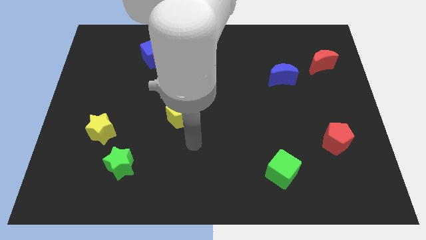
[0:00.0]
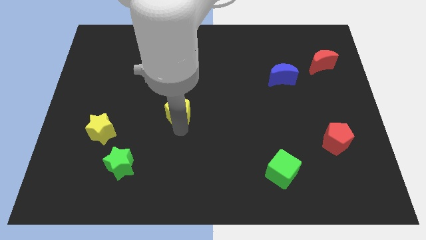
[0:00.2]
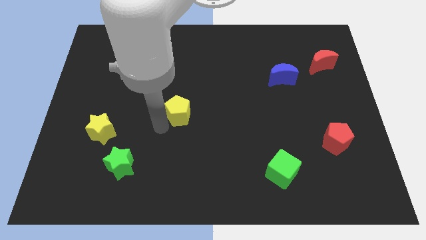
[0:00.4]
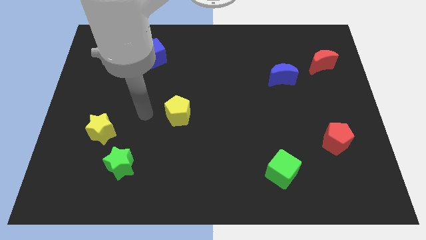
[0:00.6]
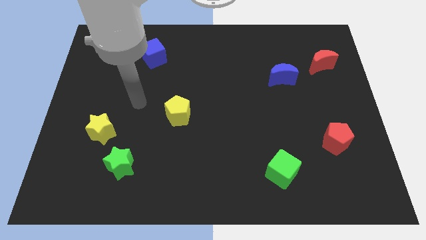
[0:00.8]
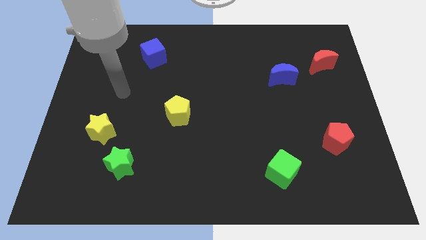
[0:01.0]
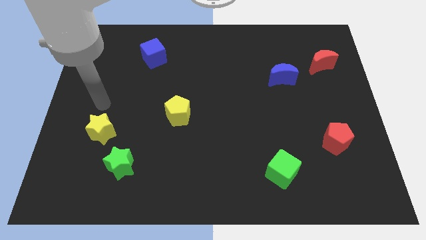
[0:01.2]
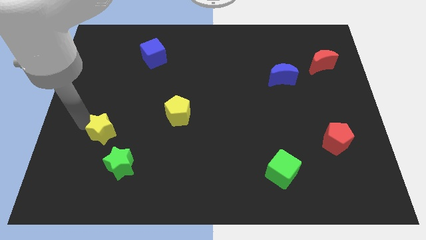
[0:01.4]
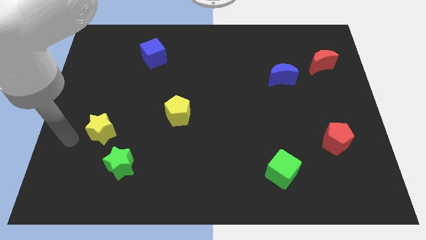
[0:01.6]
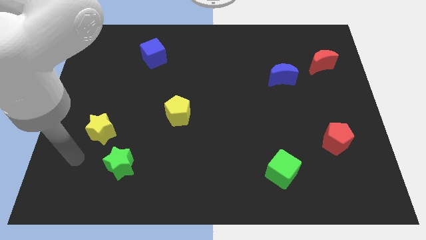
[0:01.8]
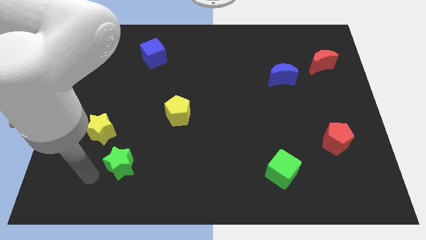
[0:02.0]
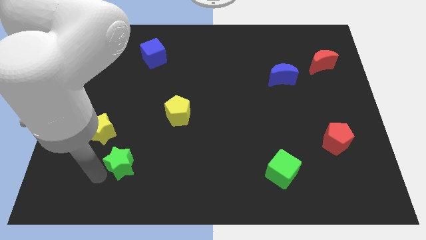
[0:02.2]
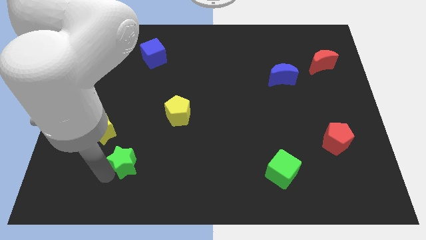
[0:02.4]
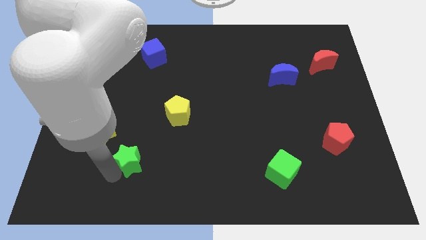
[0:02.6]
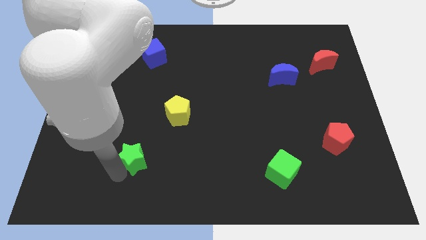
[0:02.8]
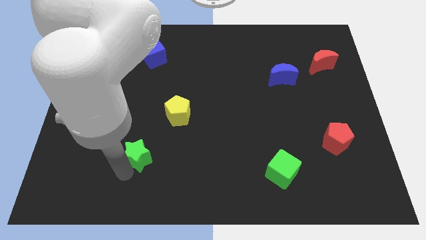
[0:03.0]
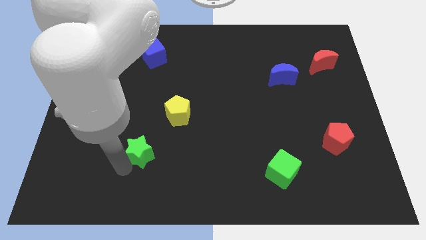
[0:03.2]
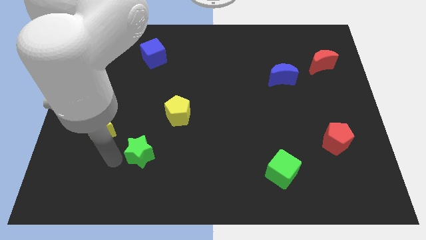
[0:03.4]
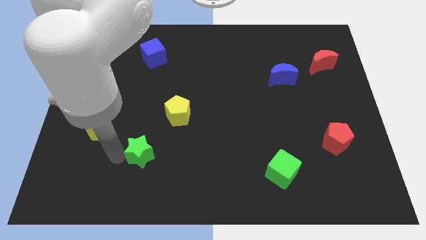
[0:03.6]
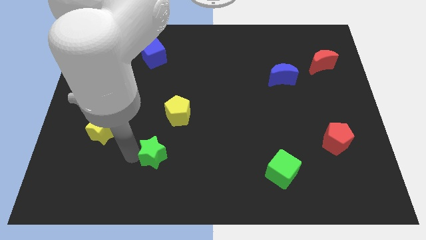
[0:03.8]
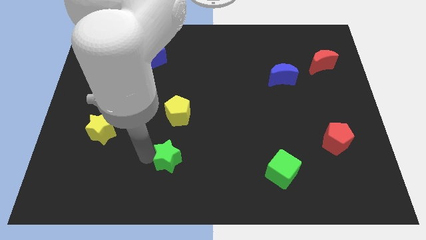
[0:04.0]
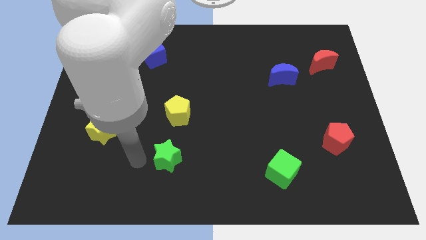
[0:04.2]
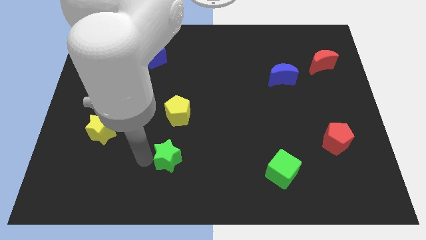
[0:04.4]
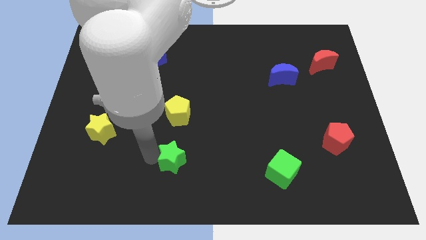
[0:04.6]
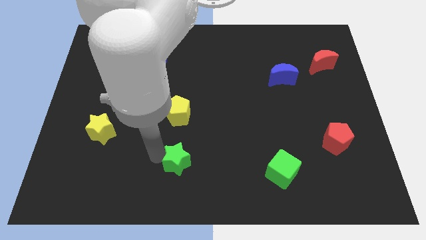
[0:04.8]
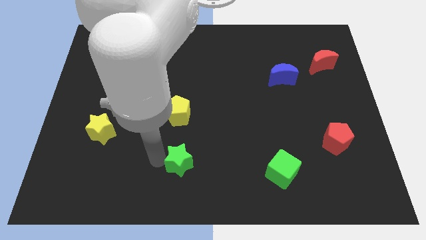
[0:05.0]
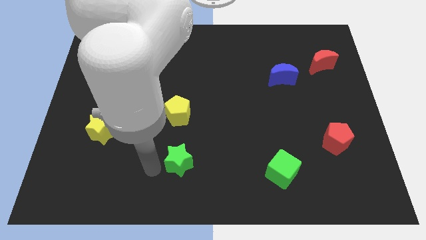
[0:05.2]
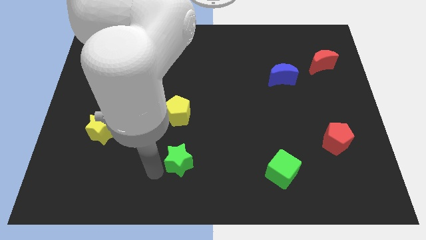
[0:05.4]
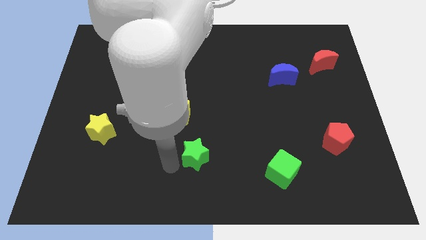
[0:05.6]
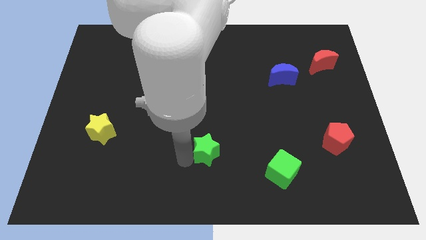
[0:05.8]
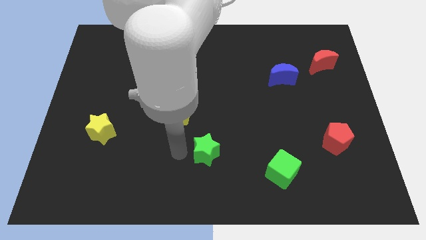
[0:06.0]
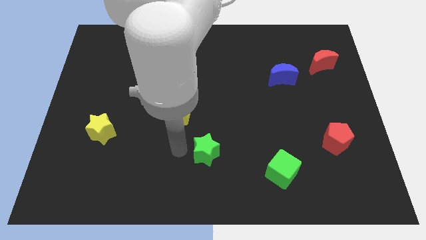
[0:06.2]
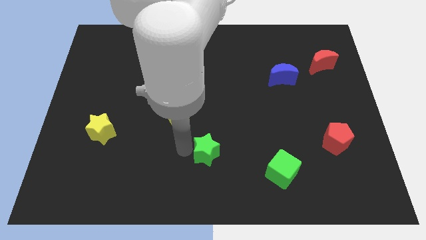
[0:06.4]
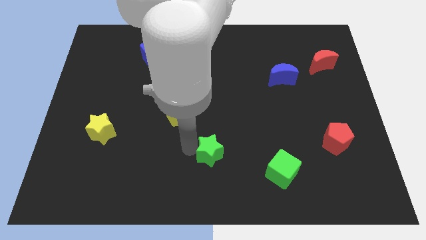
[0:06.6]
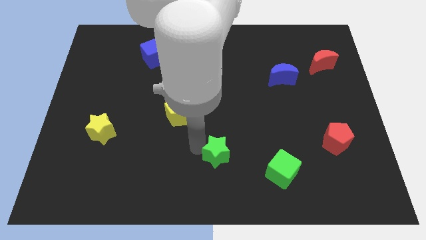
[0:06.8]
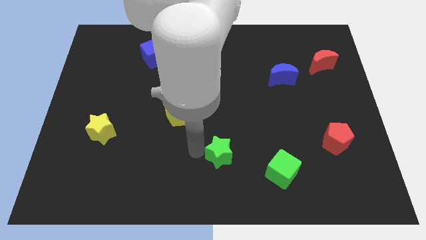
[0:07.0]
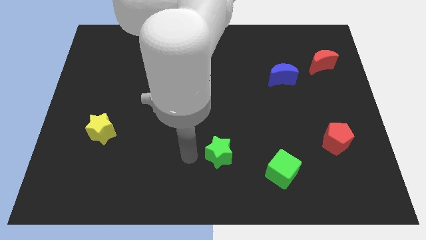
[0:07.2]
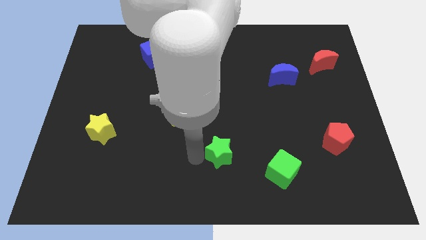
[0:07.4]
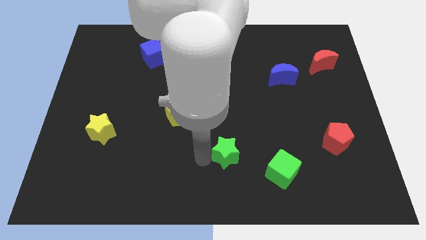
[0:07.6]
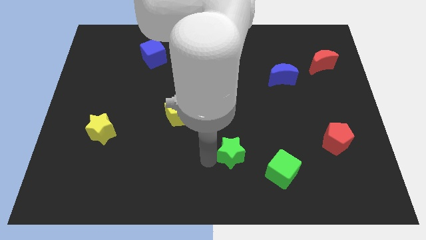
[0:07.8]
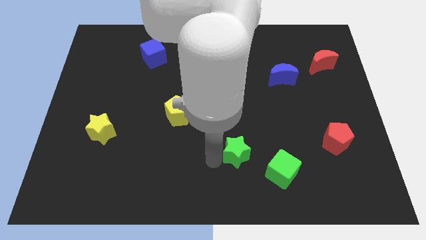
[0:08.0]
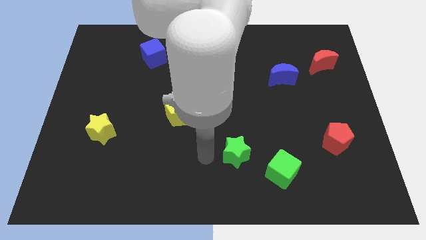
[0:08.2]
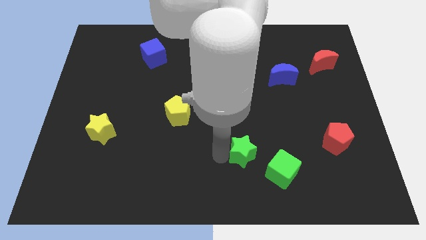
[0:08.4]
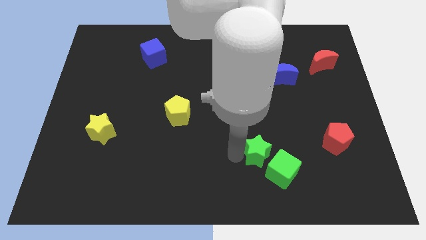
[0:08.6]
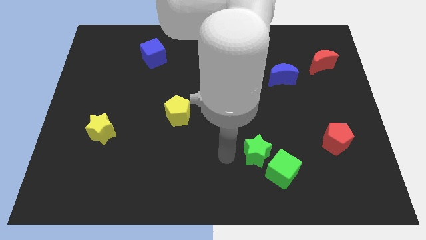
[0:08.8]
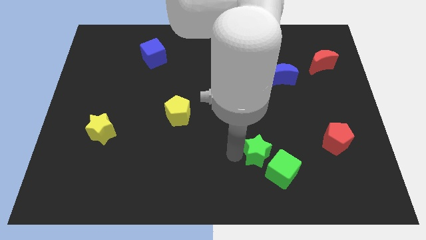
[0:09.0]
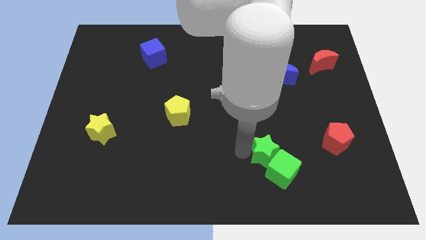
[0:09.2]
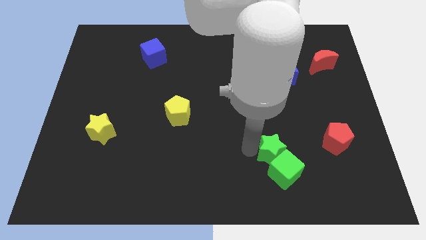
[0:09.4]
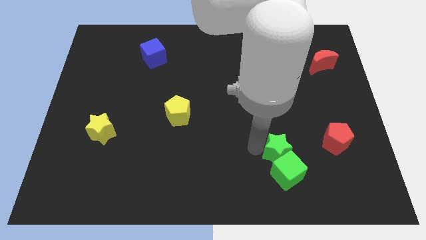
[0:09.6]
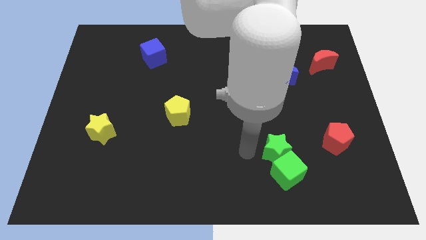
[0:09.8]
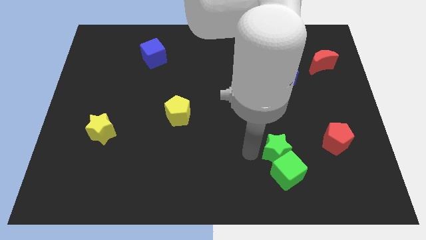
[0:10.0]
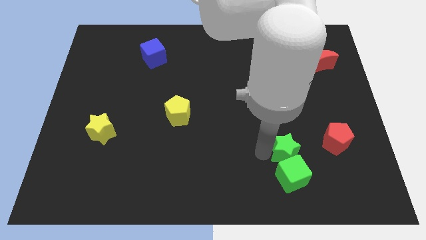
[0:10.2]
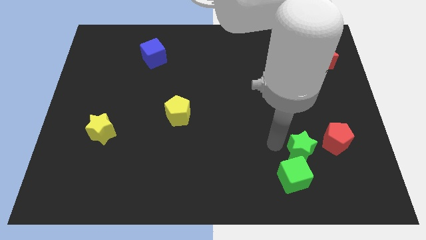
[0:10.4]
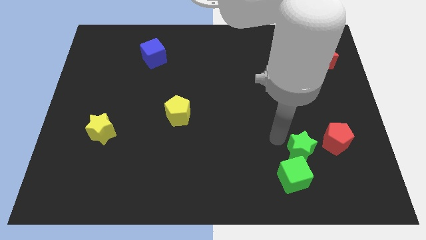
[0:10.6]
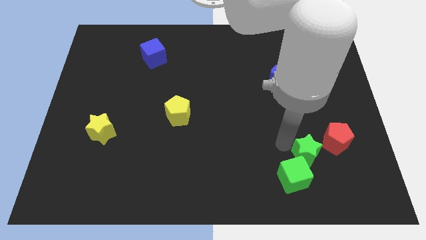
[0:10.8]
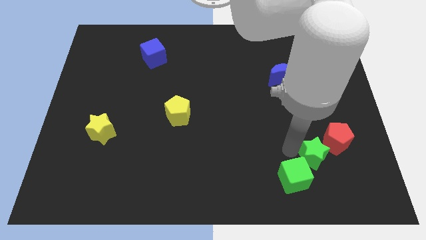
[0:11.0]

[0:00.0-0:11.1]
put the green star to the right of the green cube

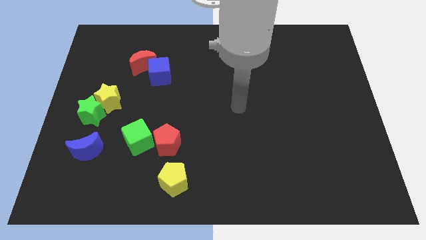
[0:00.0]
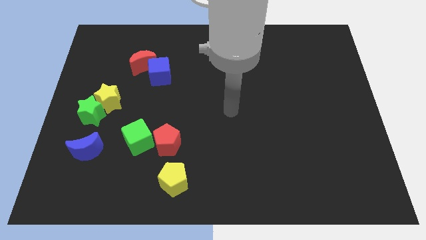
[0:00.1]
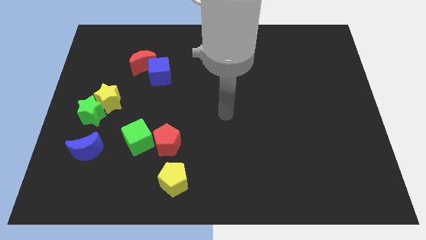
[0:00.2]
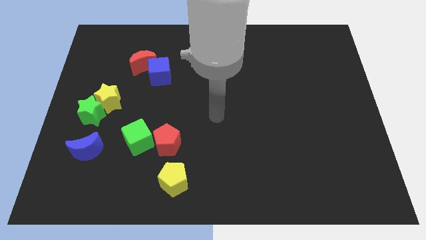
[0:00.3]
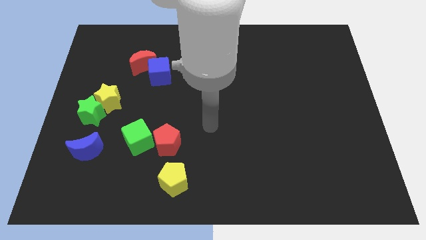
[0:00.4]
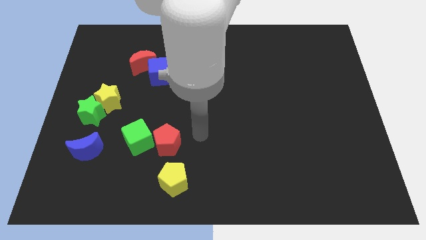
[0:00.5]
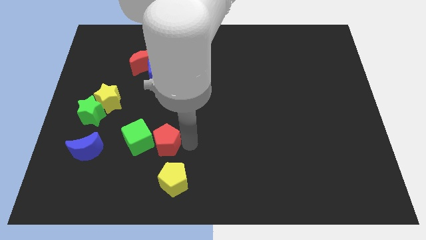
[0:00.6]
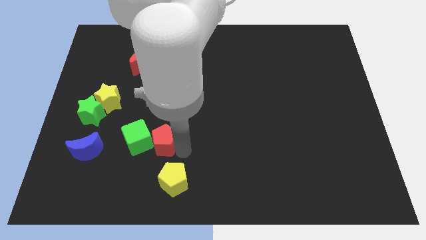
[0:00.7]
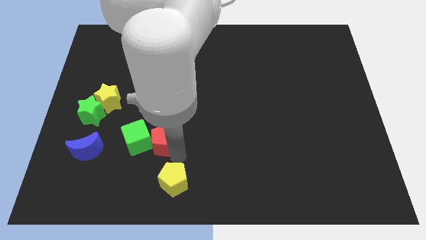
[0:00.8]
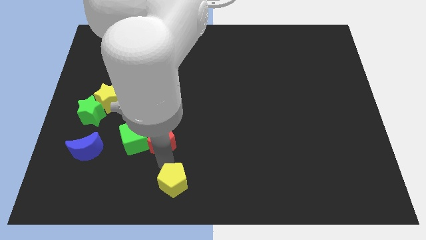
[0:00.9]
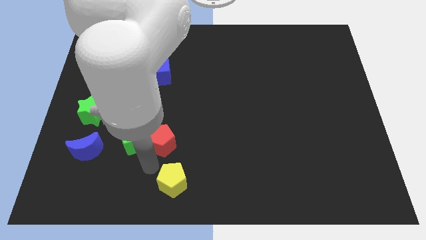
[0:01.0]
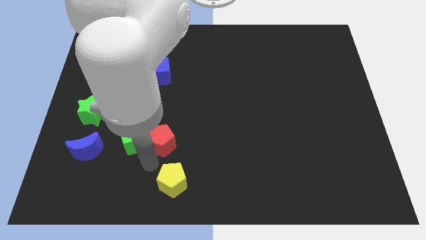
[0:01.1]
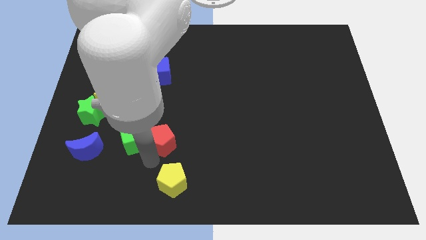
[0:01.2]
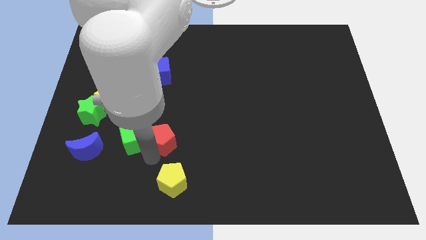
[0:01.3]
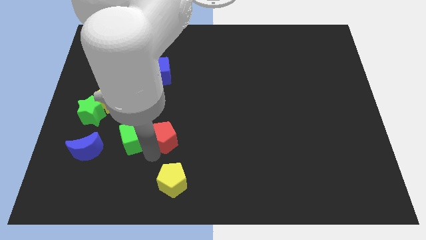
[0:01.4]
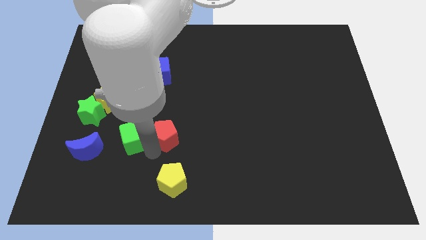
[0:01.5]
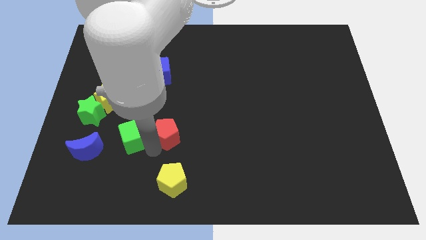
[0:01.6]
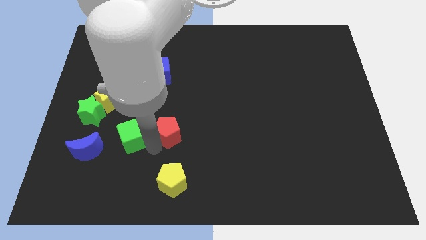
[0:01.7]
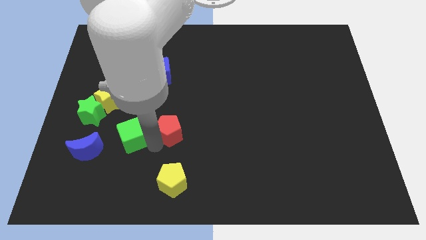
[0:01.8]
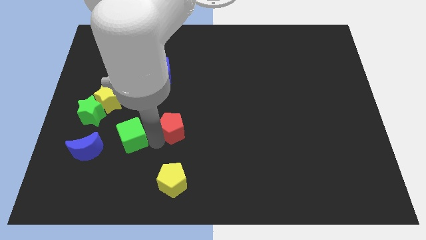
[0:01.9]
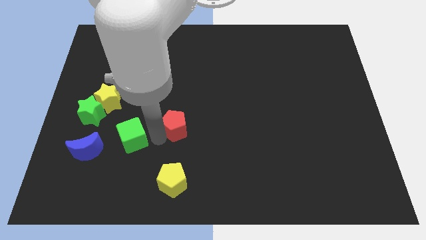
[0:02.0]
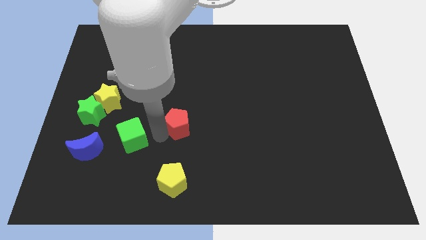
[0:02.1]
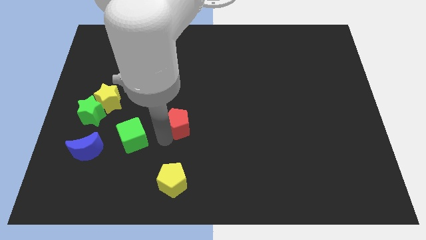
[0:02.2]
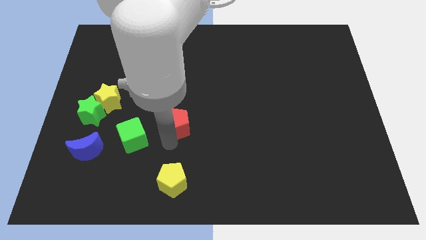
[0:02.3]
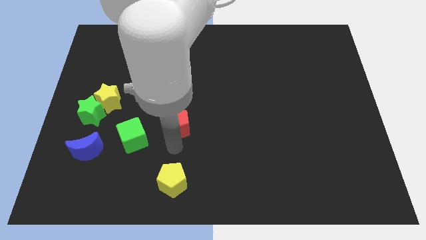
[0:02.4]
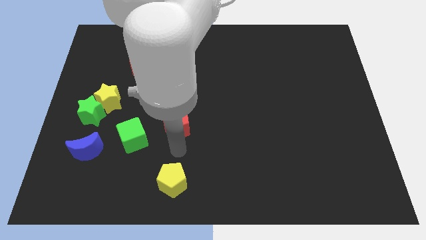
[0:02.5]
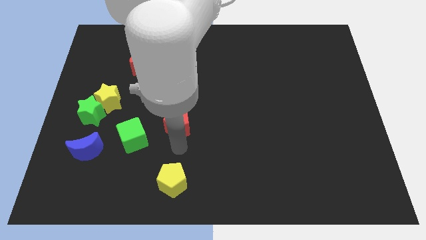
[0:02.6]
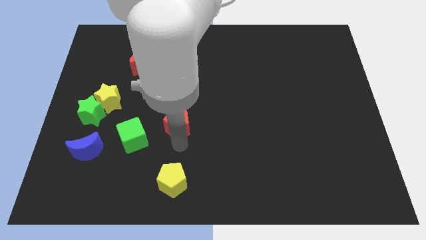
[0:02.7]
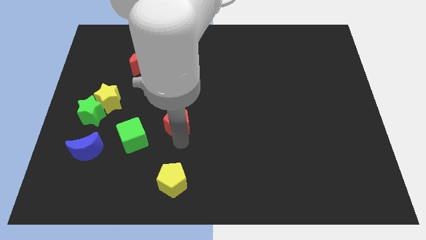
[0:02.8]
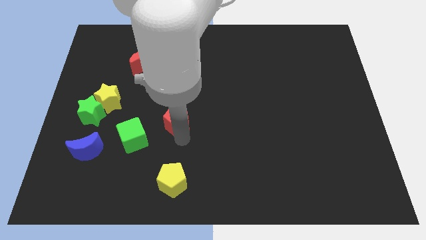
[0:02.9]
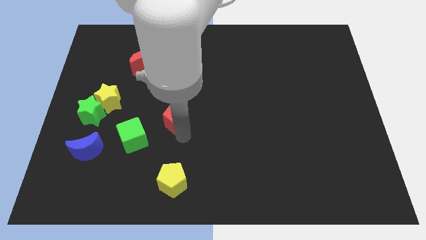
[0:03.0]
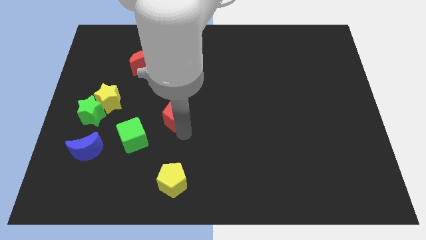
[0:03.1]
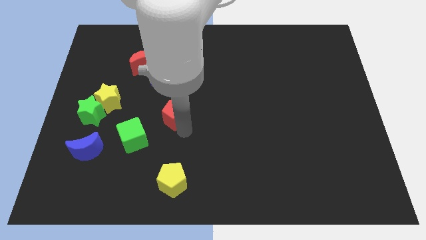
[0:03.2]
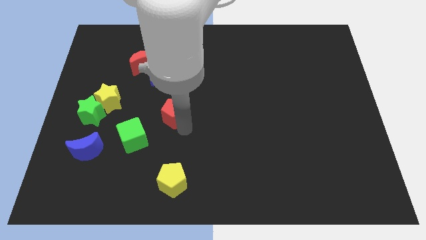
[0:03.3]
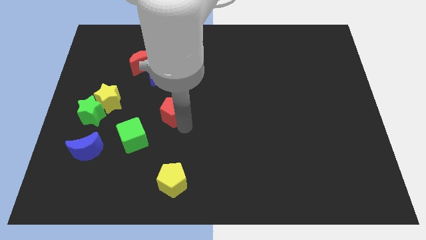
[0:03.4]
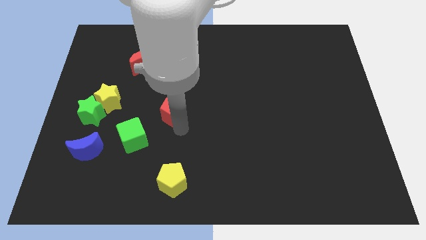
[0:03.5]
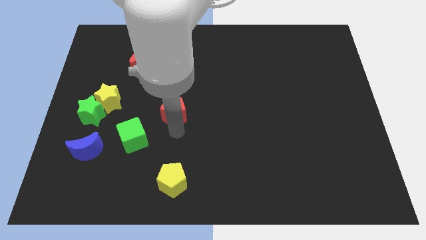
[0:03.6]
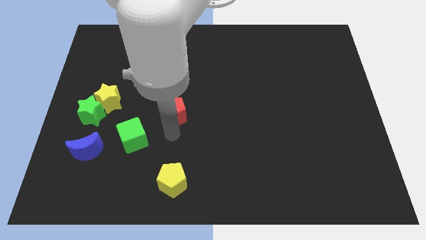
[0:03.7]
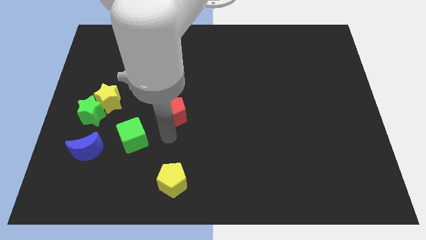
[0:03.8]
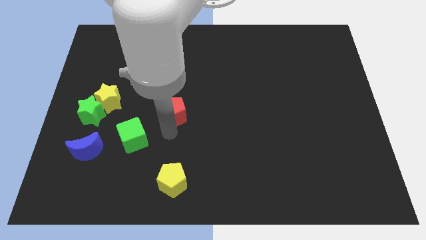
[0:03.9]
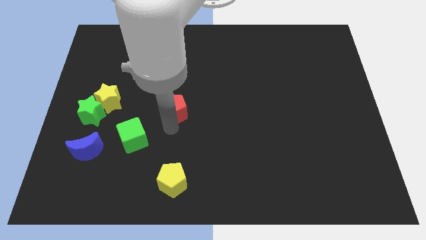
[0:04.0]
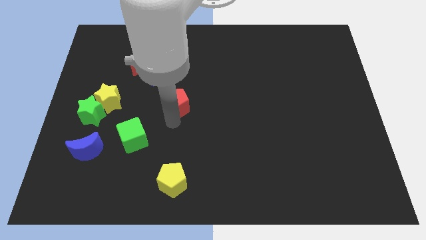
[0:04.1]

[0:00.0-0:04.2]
push the red pentagon to the bottom right side of the blue cube
